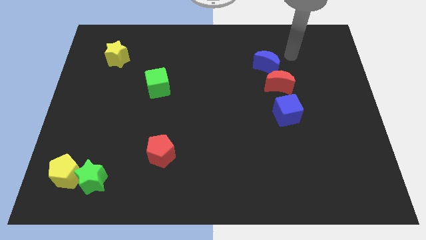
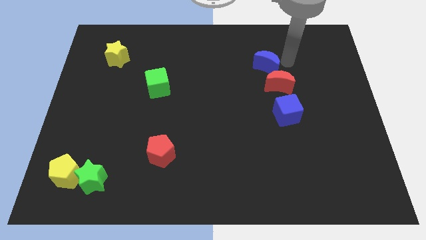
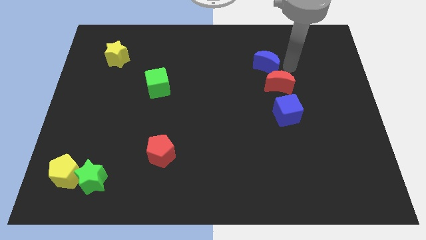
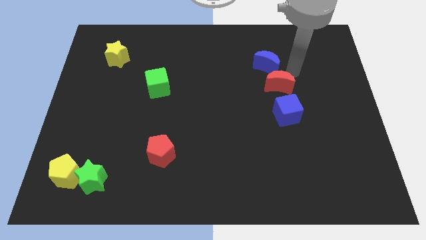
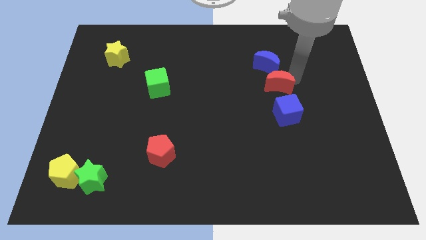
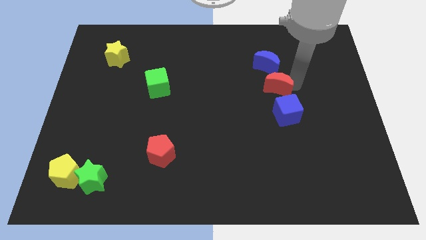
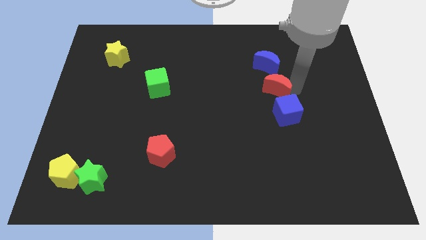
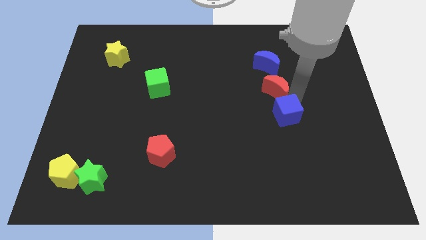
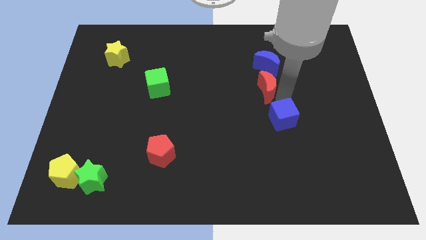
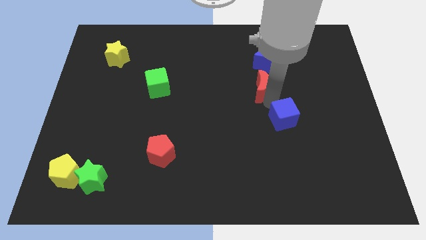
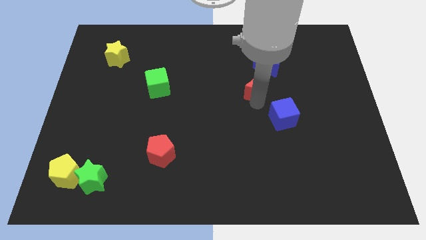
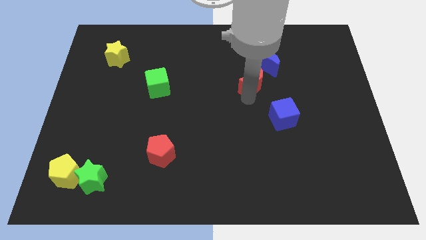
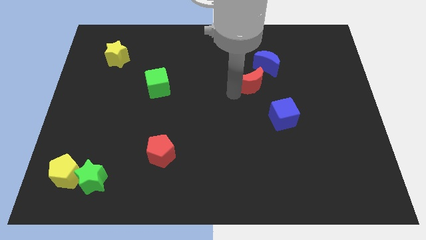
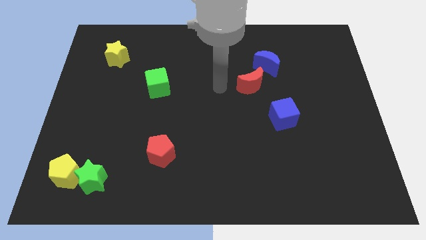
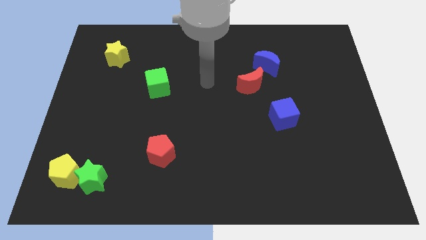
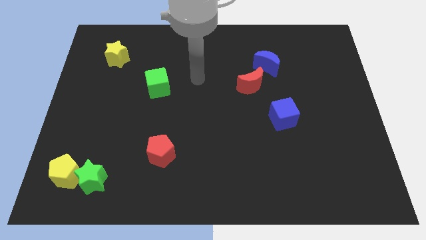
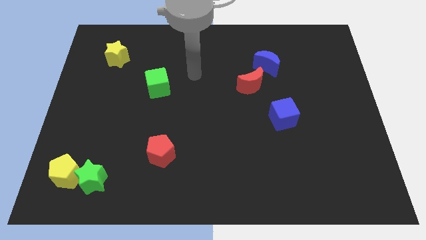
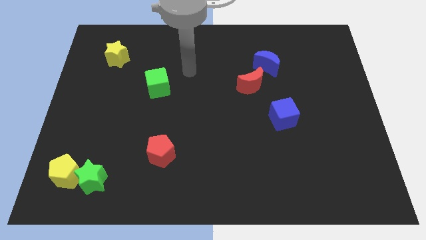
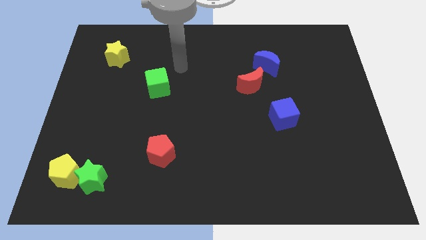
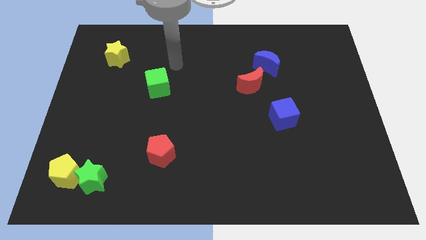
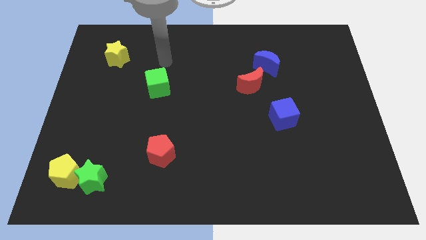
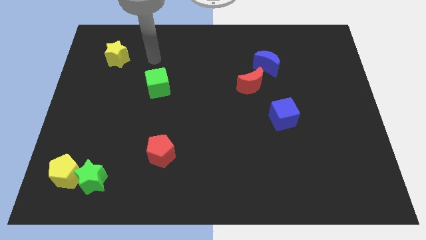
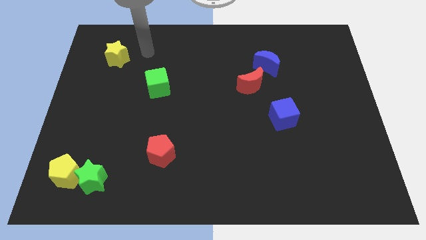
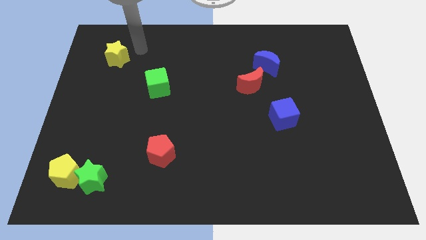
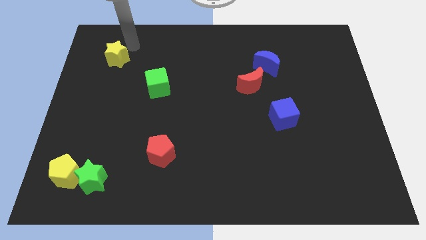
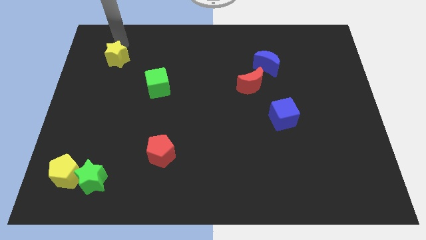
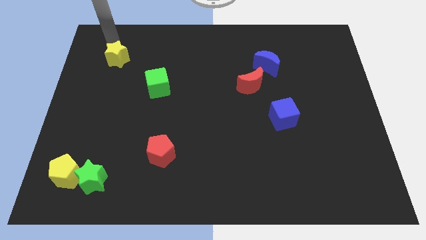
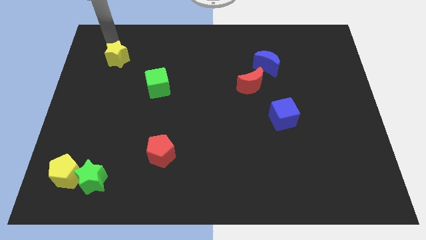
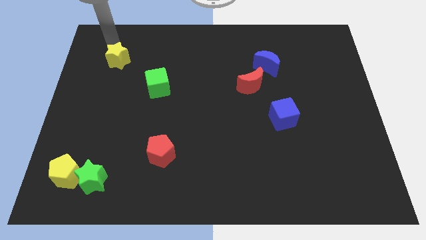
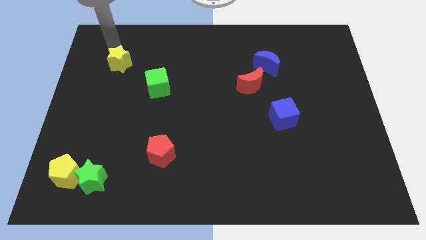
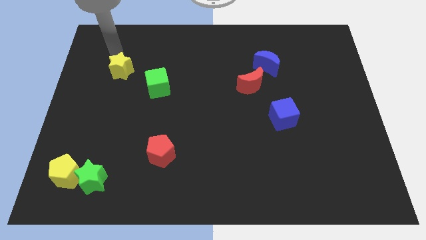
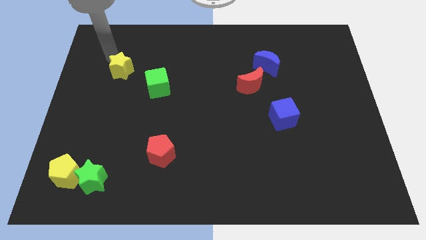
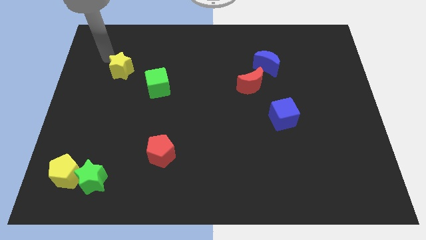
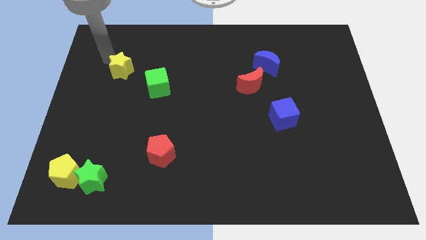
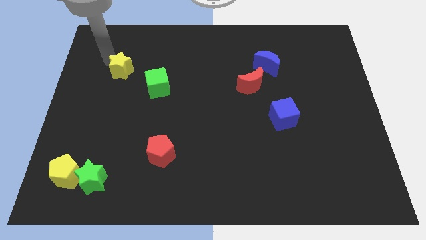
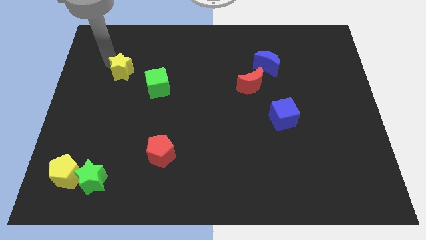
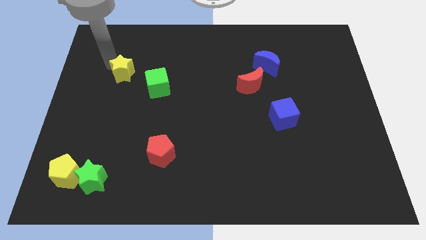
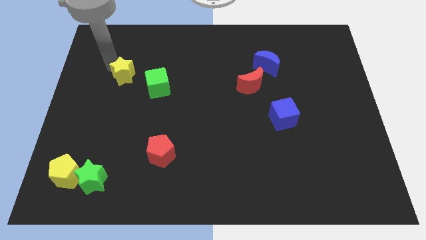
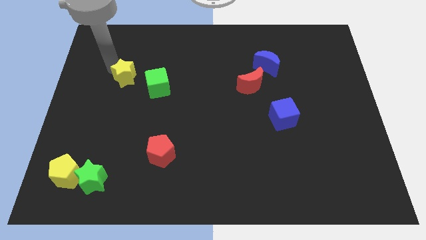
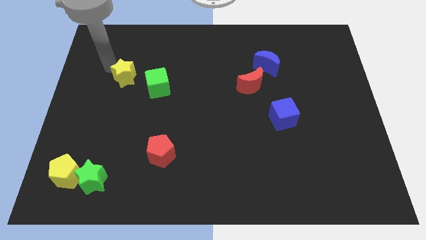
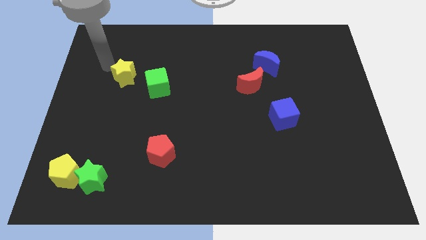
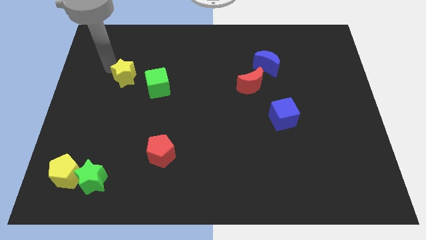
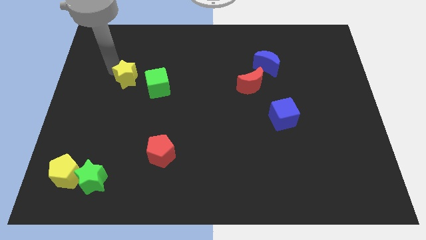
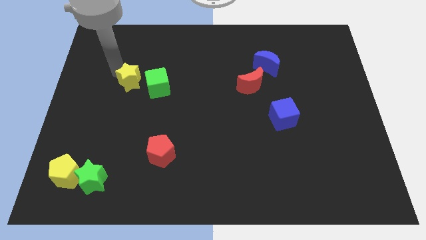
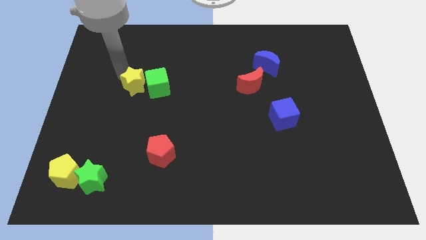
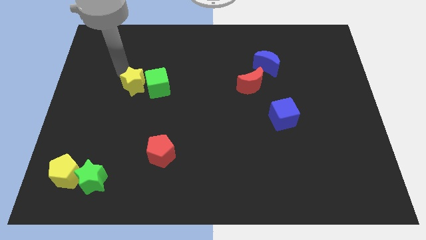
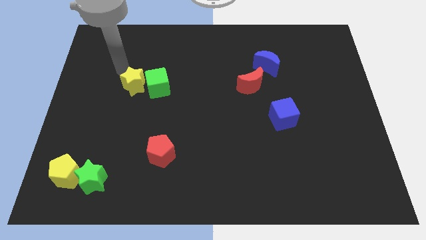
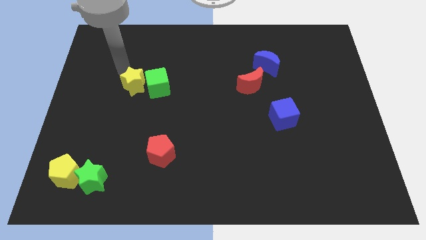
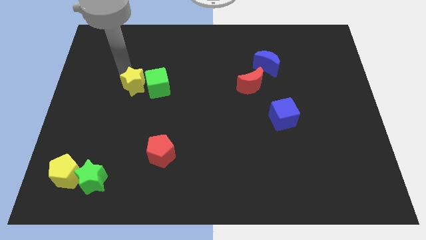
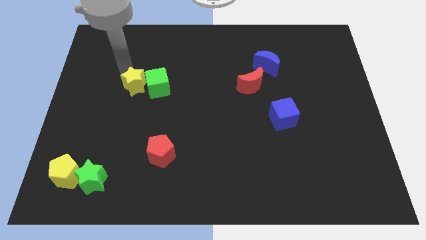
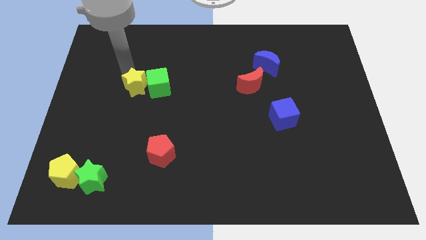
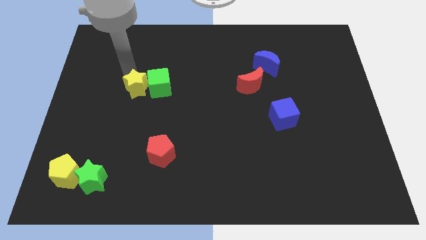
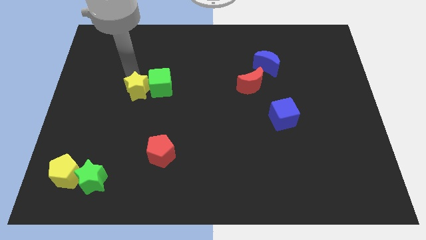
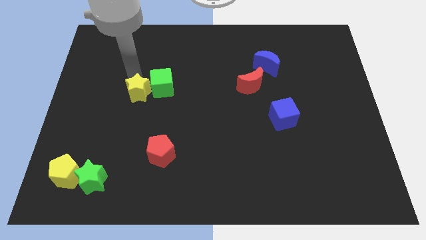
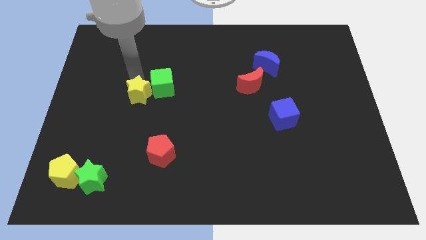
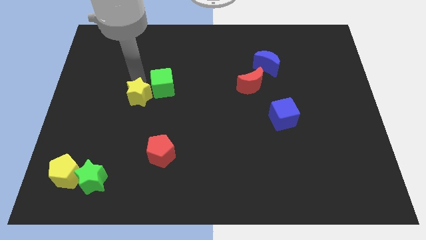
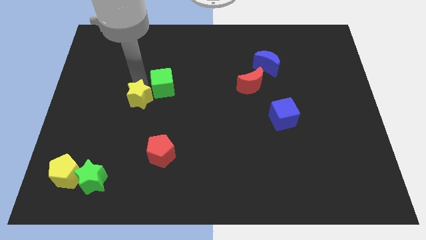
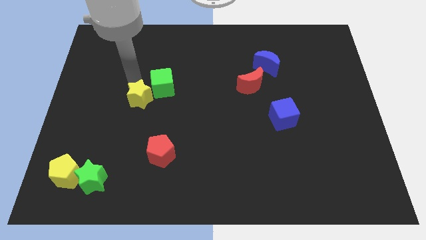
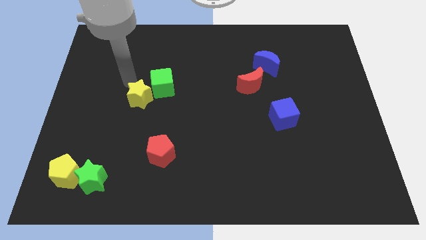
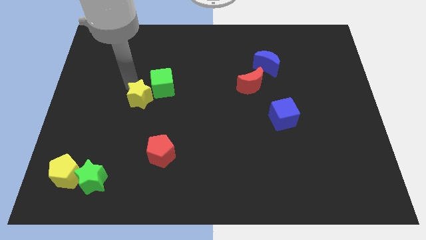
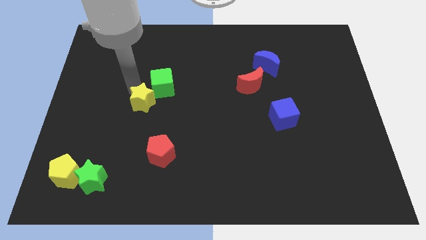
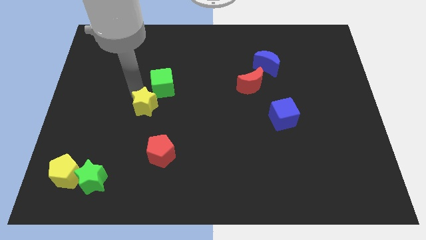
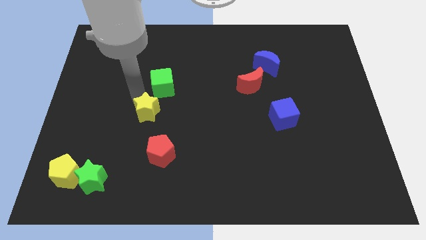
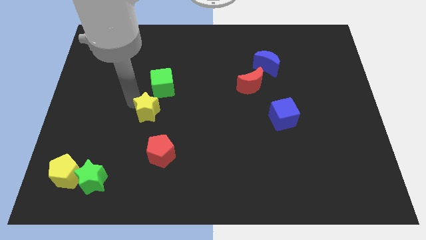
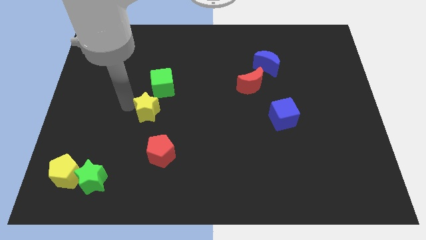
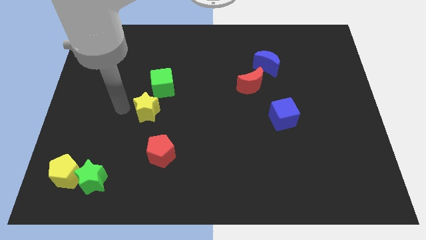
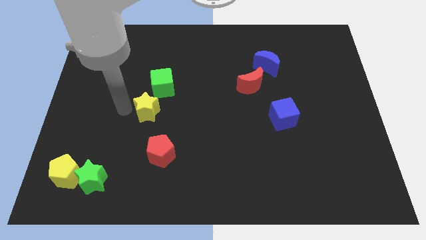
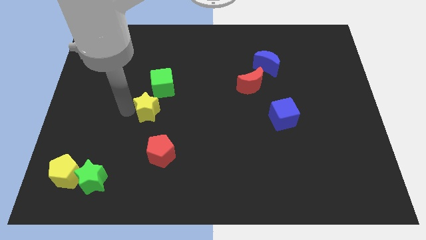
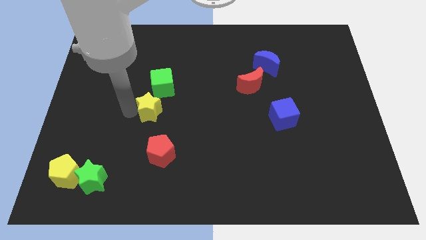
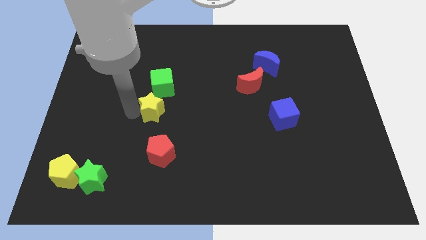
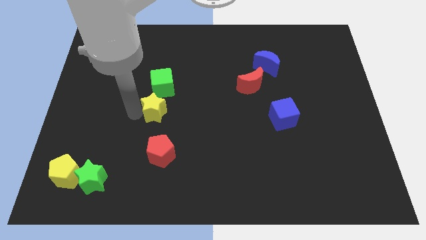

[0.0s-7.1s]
push the yellow star diagonally downwards and to the right

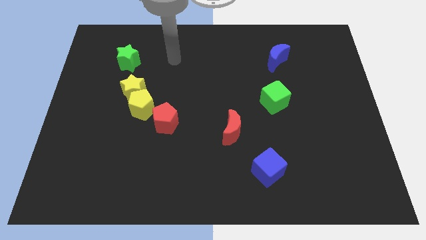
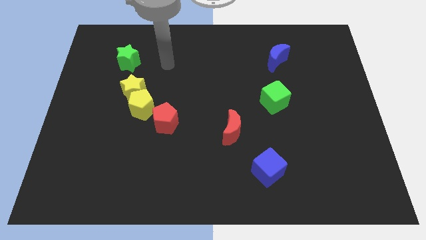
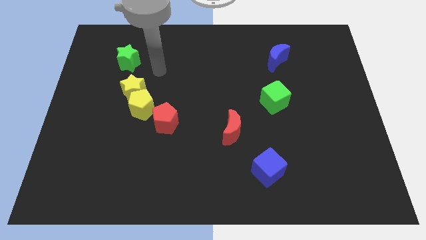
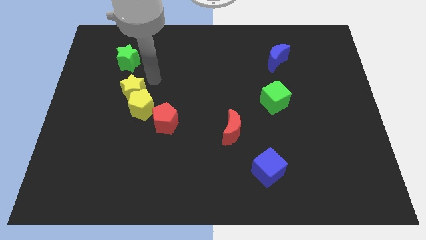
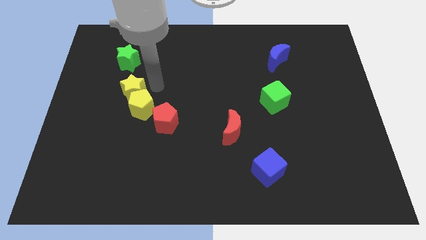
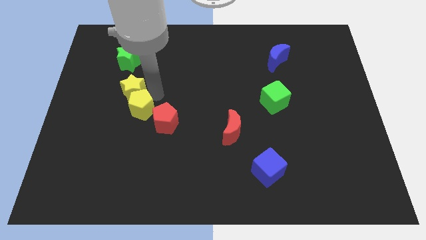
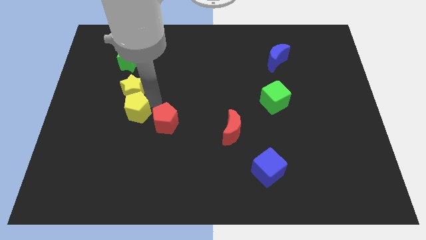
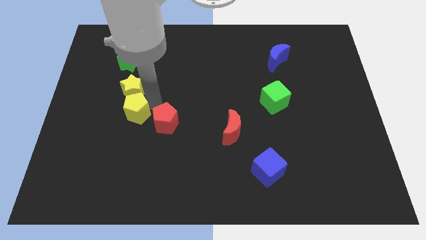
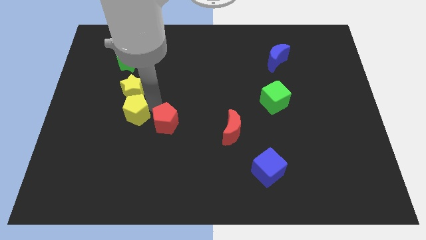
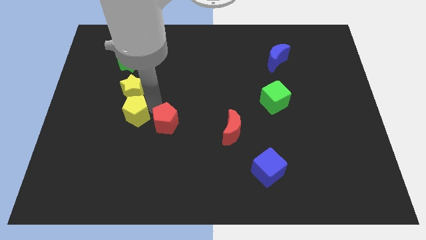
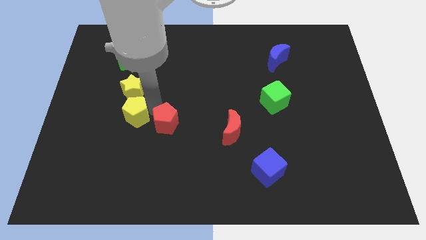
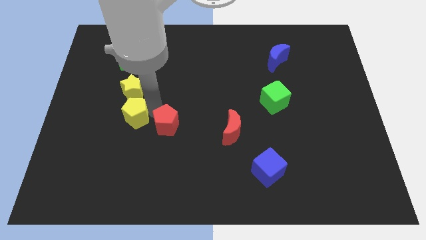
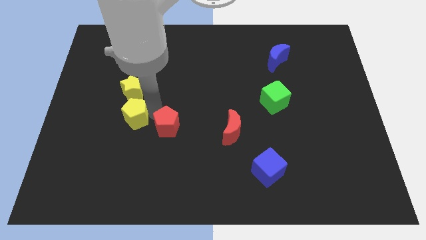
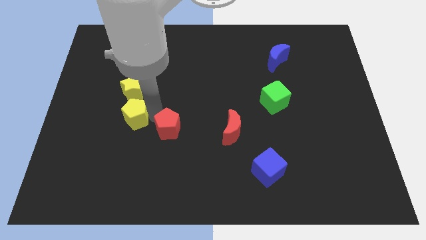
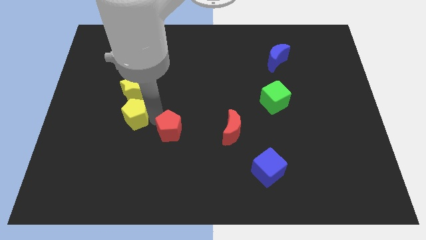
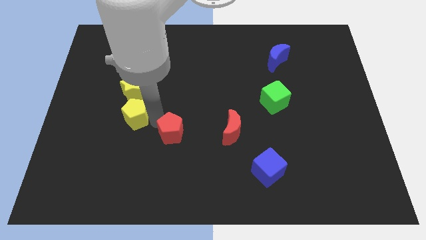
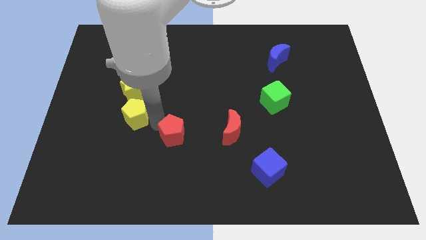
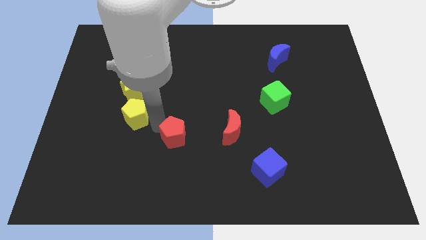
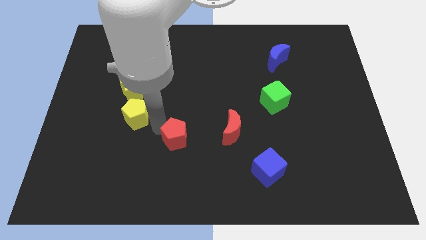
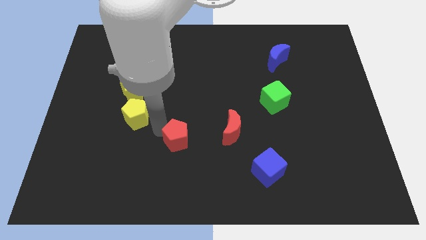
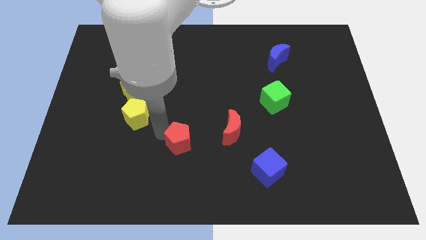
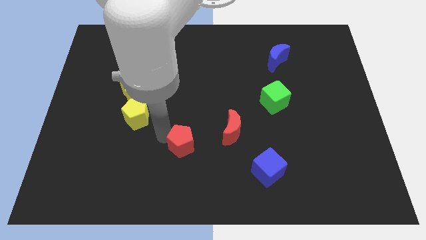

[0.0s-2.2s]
slide the red pentagon slightly diagonally down and right
